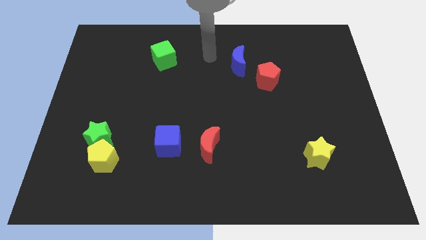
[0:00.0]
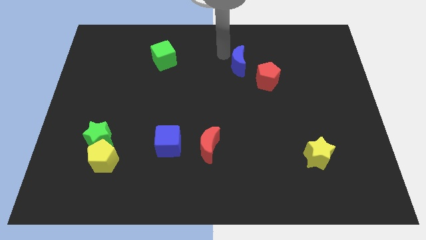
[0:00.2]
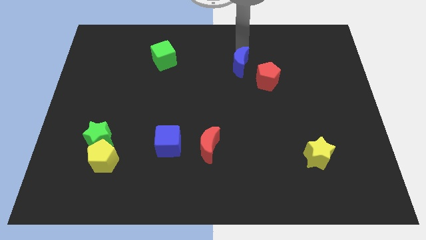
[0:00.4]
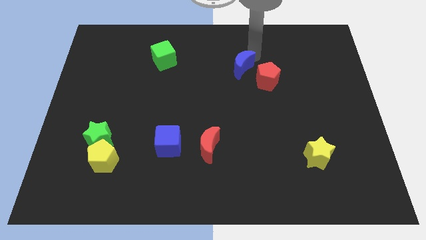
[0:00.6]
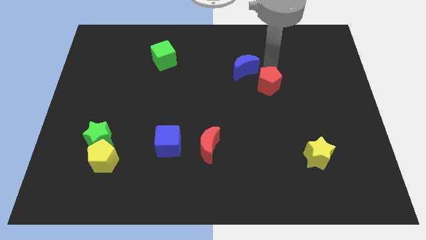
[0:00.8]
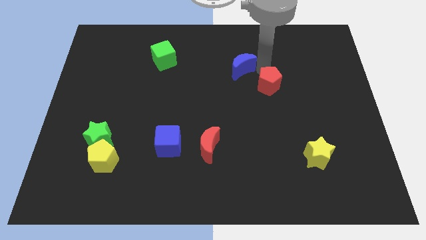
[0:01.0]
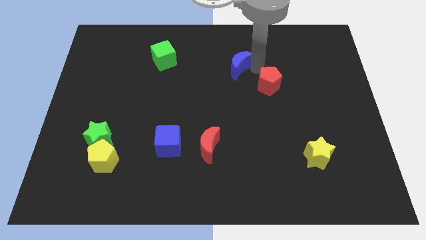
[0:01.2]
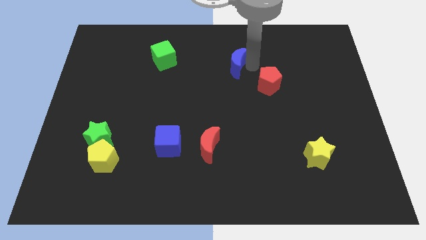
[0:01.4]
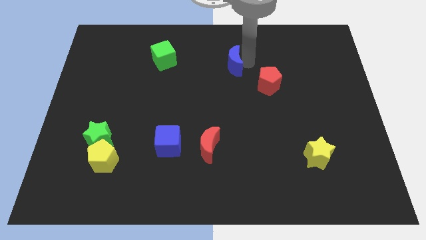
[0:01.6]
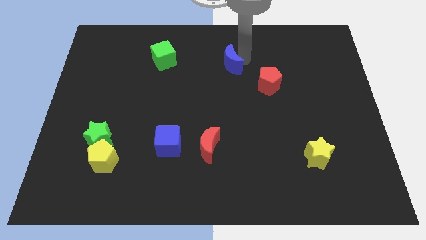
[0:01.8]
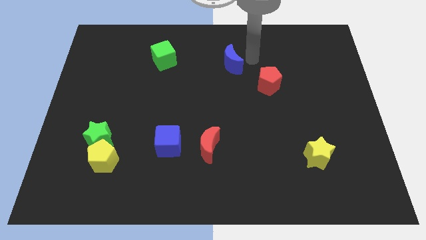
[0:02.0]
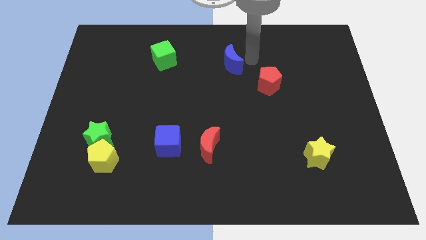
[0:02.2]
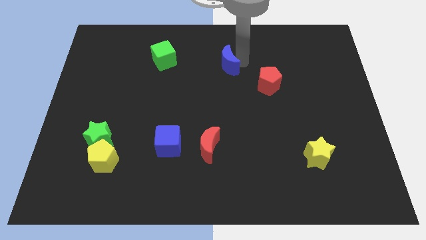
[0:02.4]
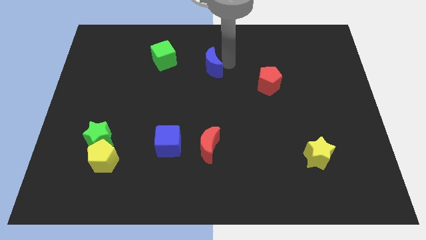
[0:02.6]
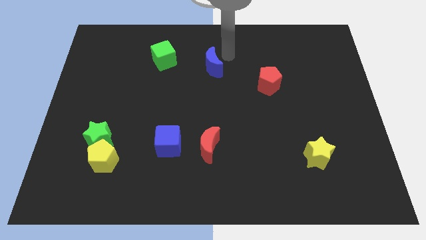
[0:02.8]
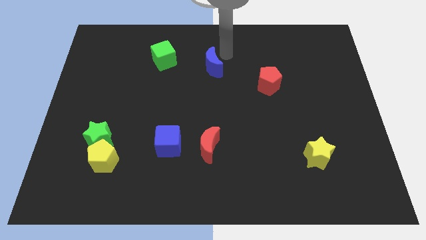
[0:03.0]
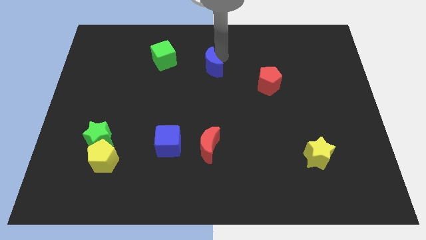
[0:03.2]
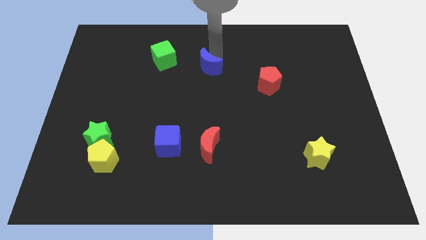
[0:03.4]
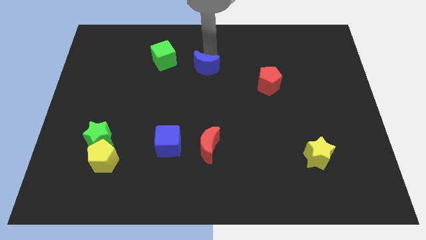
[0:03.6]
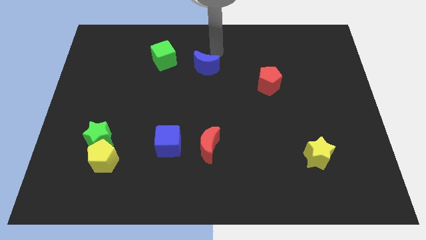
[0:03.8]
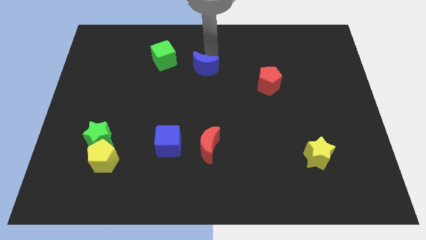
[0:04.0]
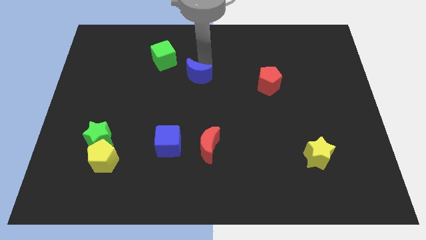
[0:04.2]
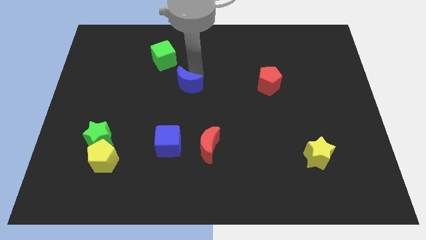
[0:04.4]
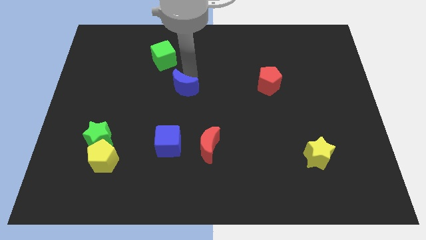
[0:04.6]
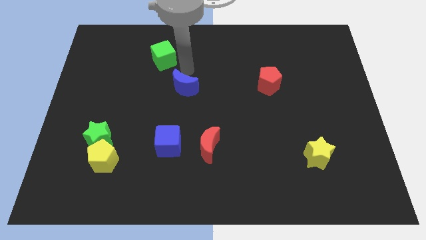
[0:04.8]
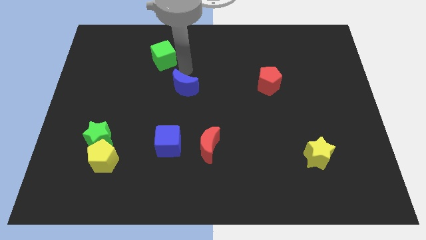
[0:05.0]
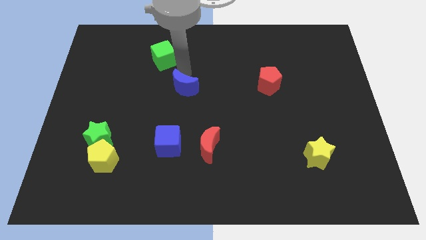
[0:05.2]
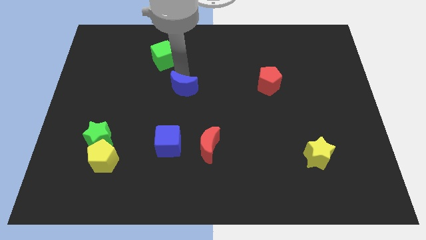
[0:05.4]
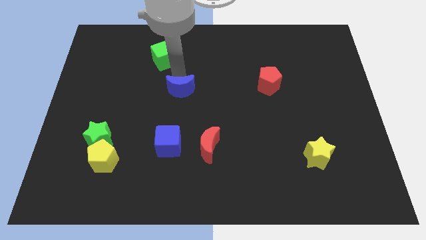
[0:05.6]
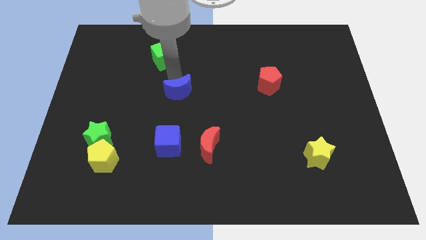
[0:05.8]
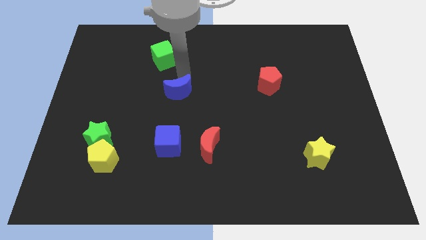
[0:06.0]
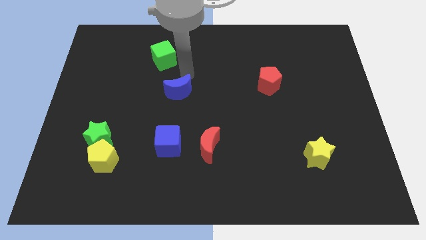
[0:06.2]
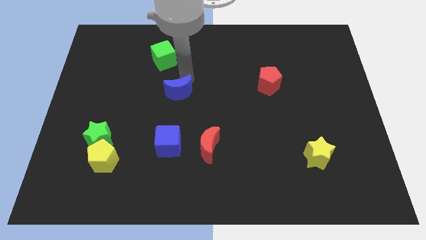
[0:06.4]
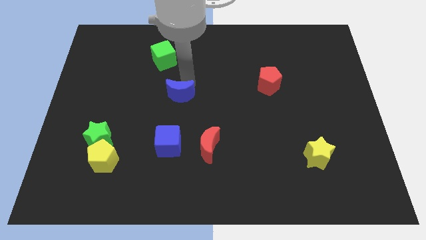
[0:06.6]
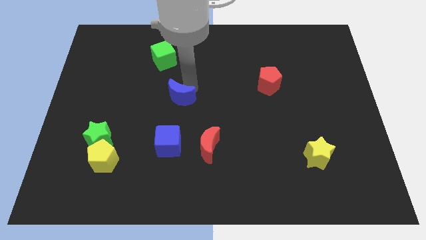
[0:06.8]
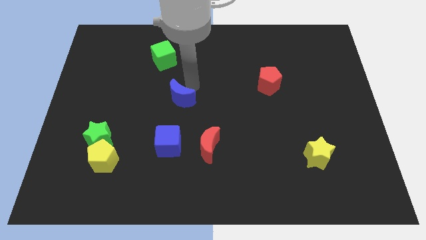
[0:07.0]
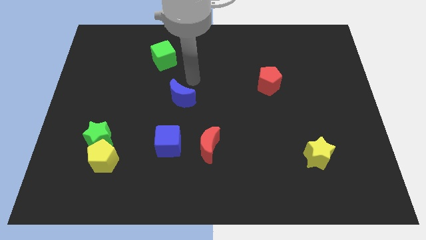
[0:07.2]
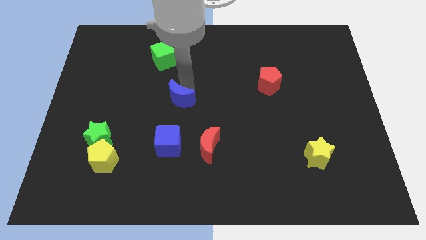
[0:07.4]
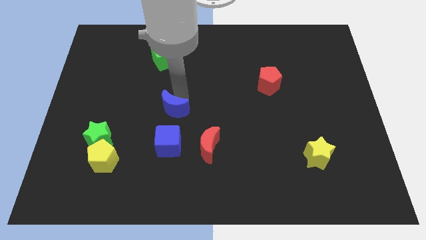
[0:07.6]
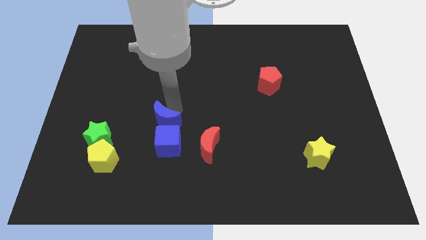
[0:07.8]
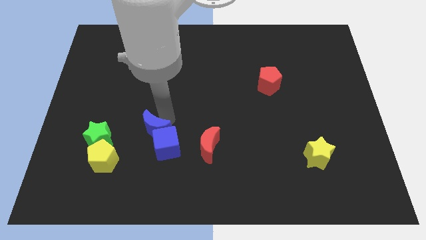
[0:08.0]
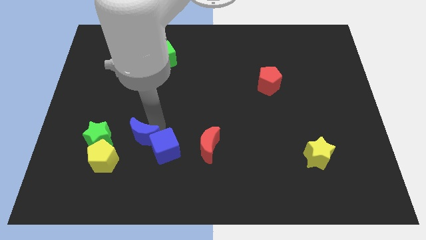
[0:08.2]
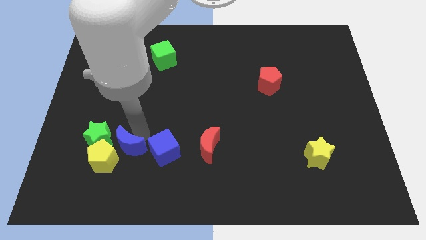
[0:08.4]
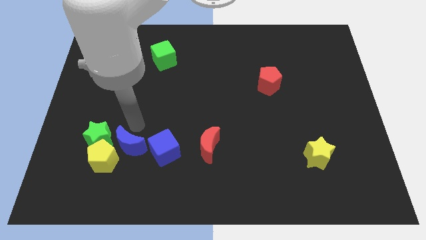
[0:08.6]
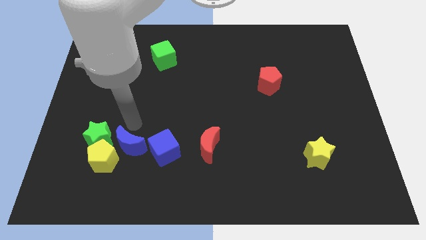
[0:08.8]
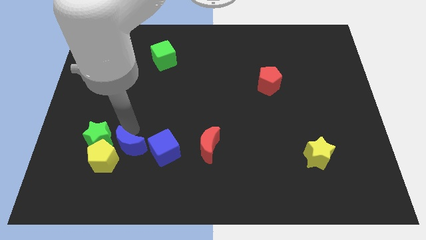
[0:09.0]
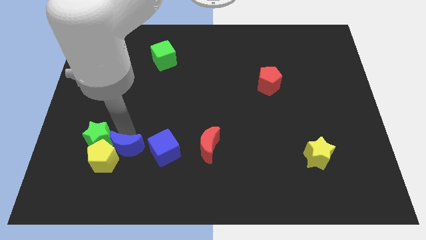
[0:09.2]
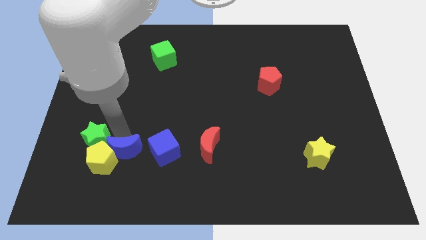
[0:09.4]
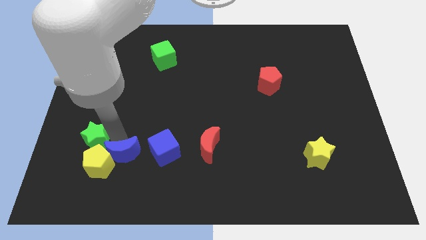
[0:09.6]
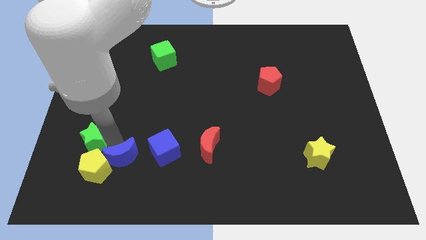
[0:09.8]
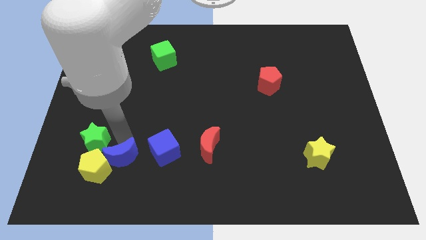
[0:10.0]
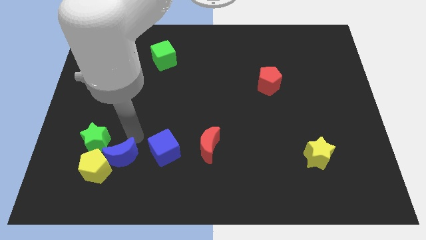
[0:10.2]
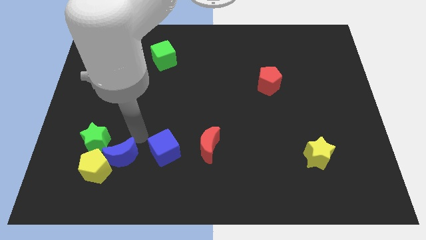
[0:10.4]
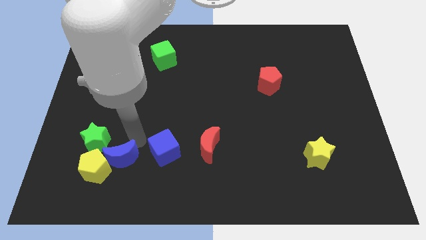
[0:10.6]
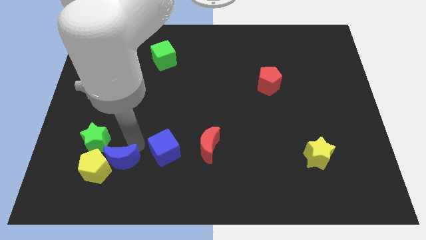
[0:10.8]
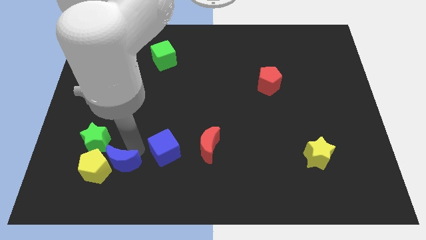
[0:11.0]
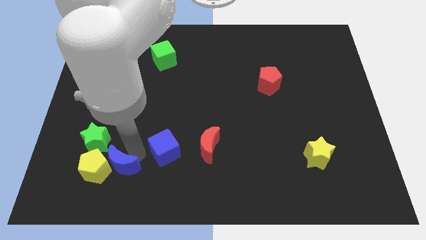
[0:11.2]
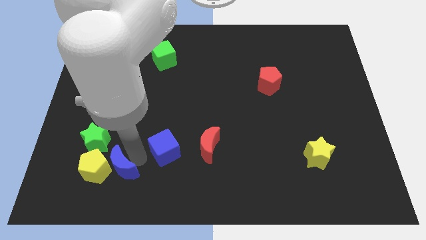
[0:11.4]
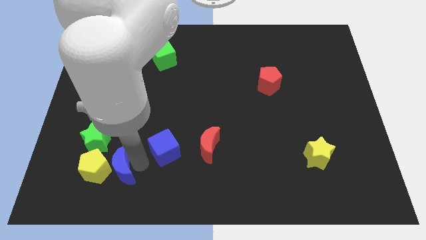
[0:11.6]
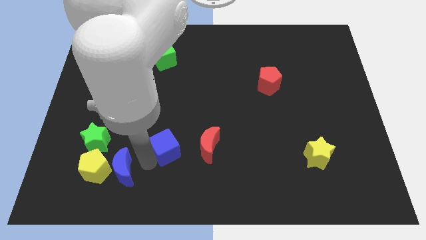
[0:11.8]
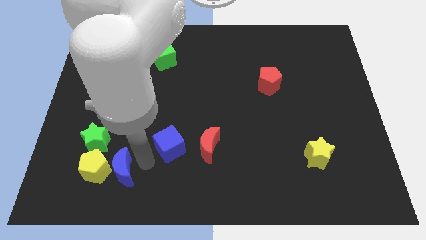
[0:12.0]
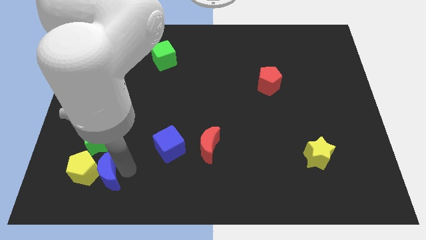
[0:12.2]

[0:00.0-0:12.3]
push the blue moon below the green star
